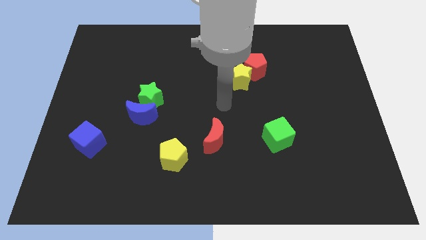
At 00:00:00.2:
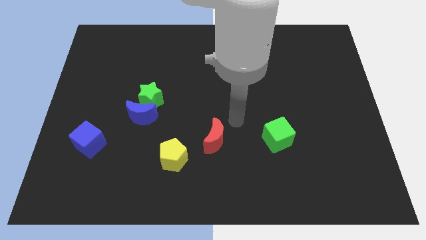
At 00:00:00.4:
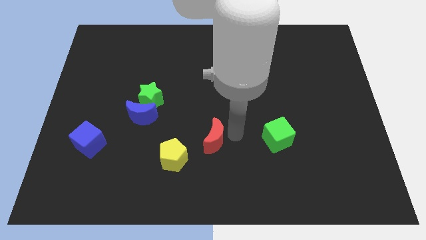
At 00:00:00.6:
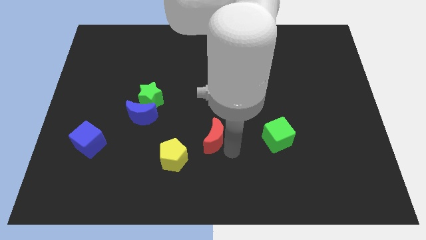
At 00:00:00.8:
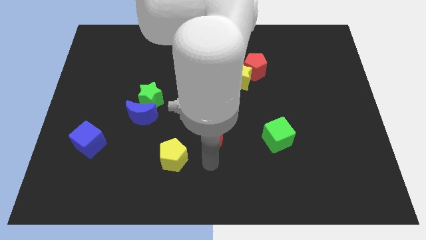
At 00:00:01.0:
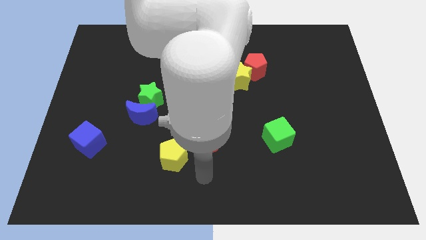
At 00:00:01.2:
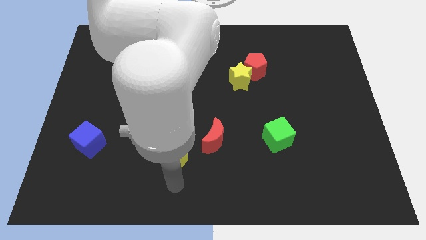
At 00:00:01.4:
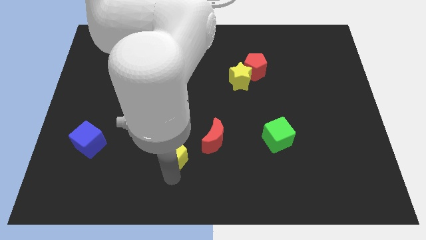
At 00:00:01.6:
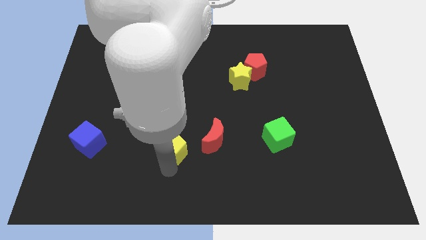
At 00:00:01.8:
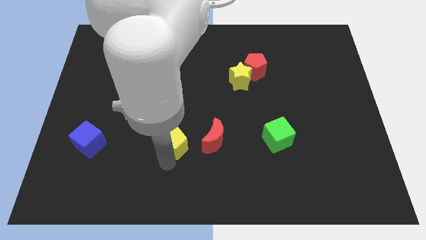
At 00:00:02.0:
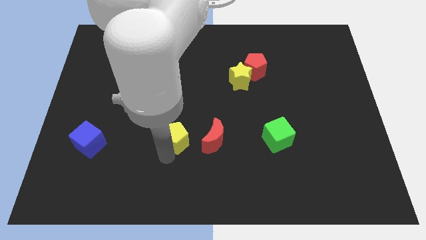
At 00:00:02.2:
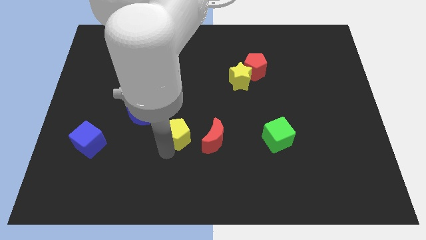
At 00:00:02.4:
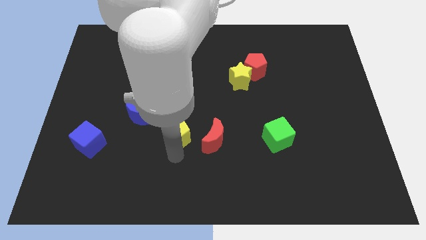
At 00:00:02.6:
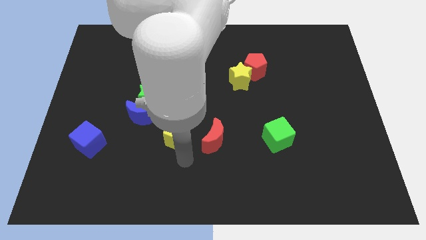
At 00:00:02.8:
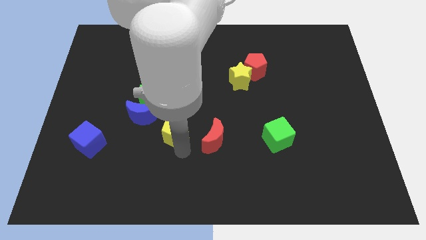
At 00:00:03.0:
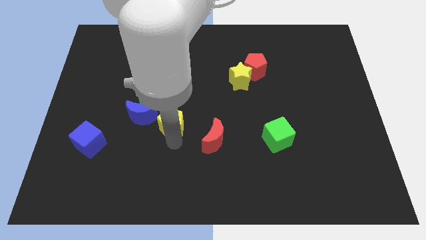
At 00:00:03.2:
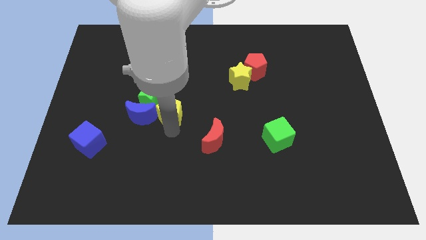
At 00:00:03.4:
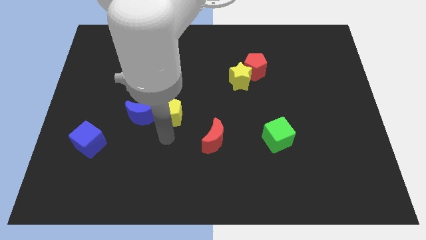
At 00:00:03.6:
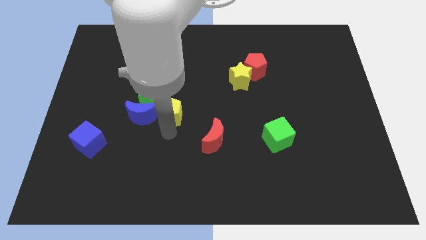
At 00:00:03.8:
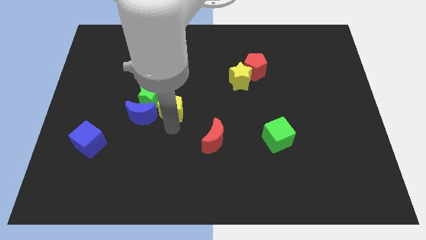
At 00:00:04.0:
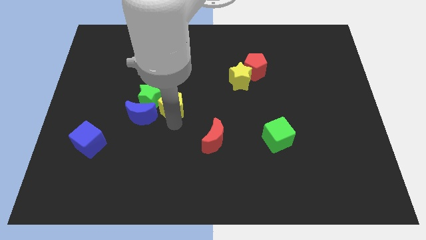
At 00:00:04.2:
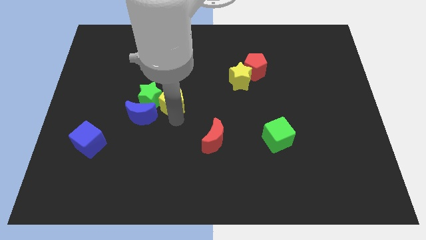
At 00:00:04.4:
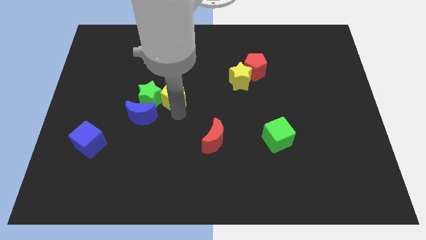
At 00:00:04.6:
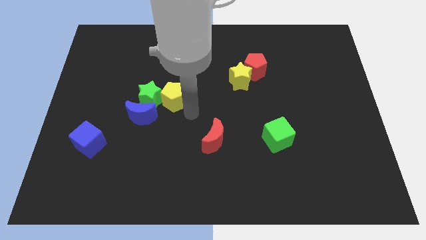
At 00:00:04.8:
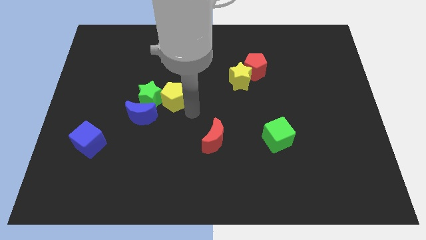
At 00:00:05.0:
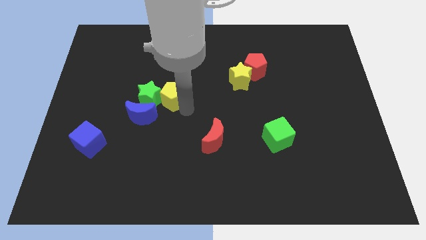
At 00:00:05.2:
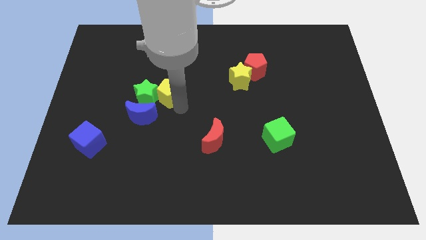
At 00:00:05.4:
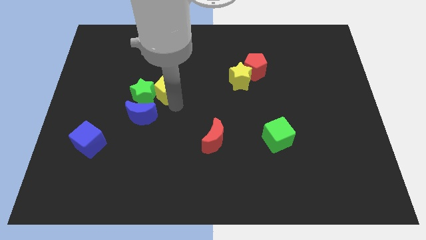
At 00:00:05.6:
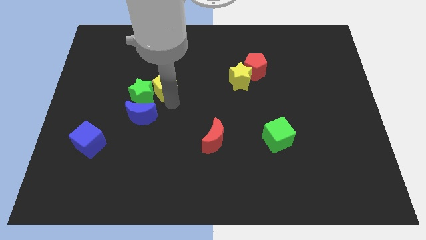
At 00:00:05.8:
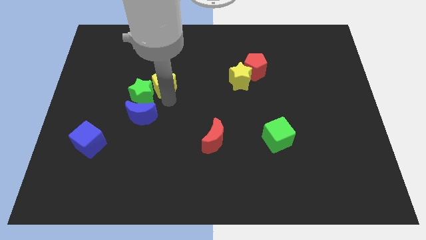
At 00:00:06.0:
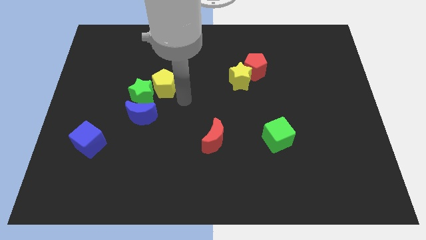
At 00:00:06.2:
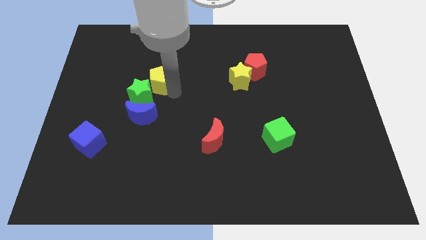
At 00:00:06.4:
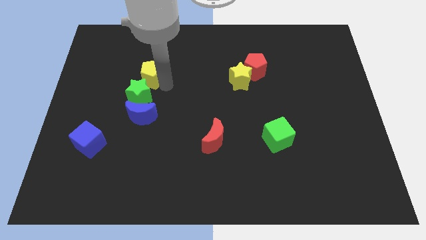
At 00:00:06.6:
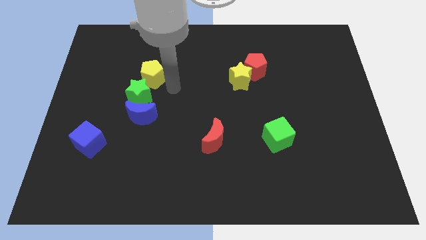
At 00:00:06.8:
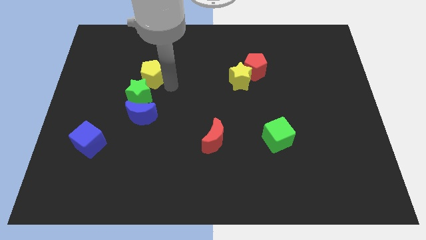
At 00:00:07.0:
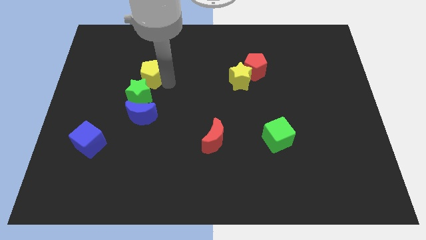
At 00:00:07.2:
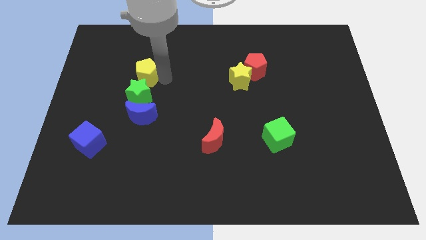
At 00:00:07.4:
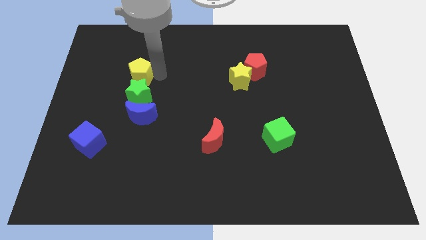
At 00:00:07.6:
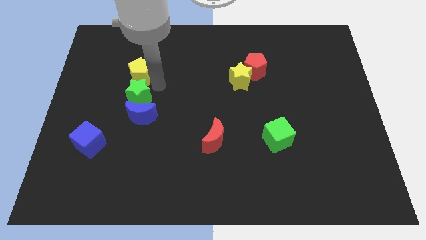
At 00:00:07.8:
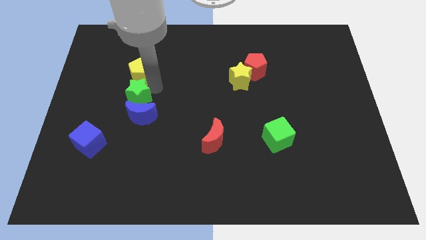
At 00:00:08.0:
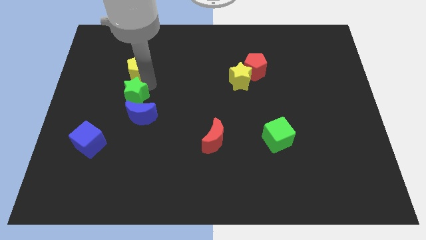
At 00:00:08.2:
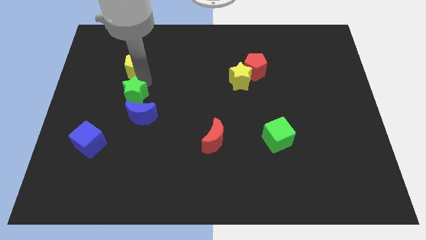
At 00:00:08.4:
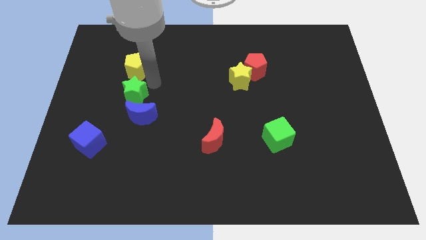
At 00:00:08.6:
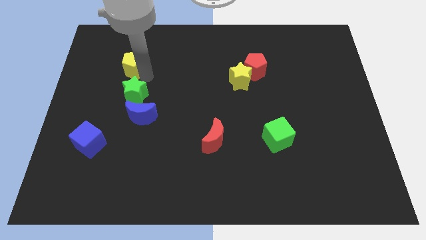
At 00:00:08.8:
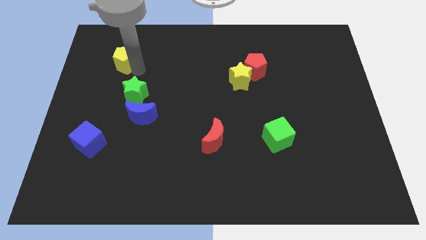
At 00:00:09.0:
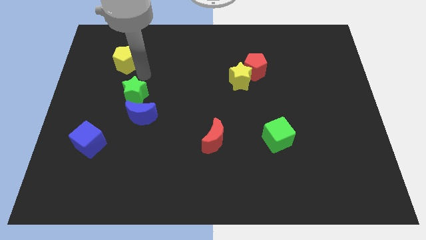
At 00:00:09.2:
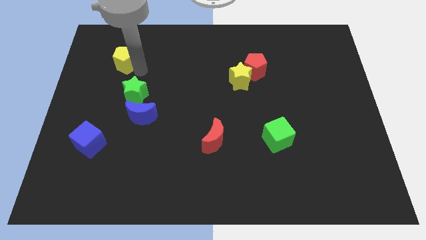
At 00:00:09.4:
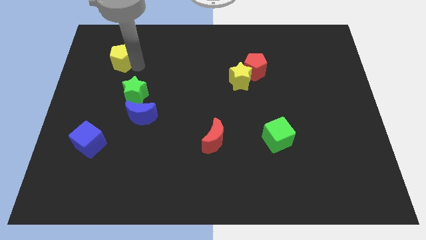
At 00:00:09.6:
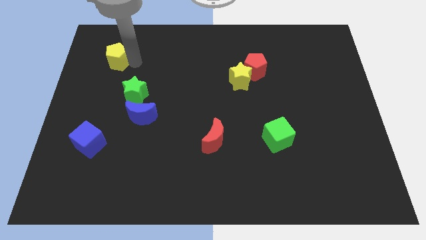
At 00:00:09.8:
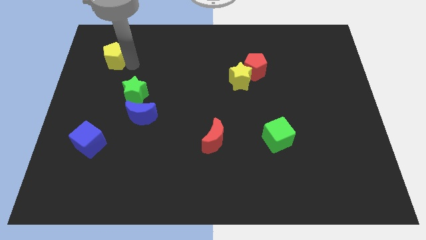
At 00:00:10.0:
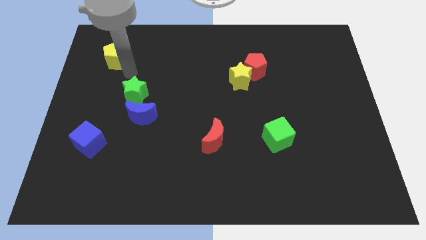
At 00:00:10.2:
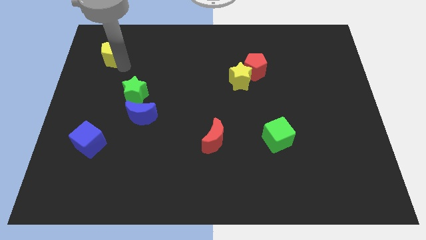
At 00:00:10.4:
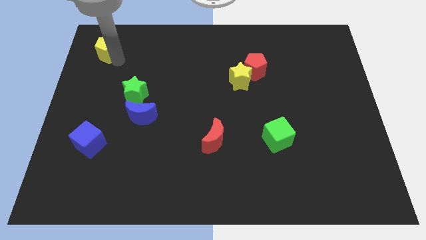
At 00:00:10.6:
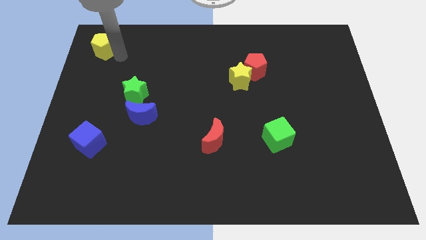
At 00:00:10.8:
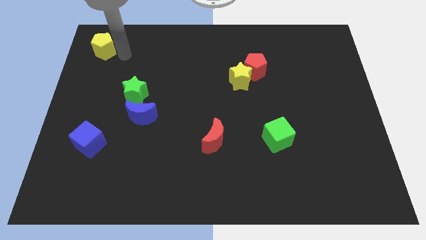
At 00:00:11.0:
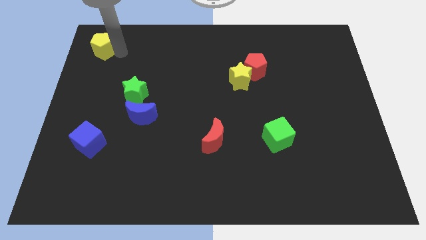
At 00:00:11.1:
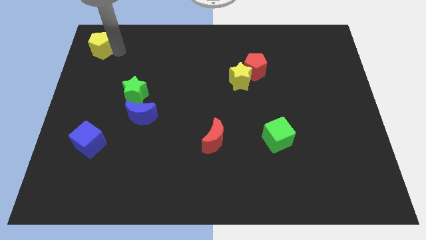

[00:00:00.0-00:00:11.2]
push the yellow pentagon to the upper left corner

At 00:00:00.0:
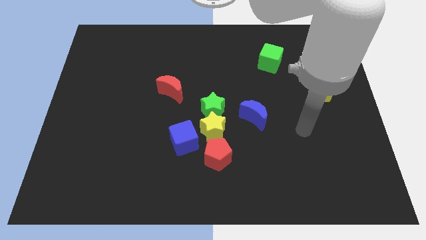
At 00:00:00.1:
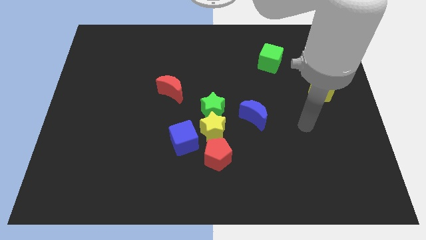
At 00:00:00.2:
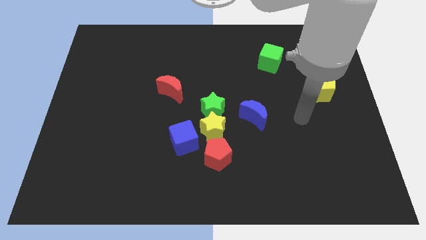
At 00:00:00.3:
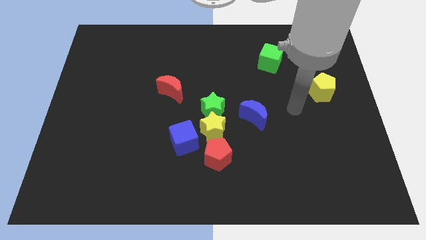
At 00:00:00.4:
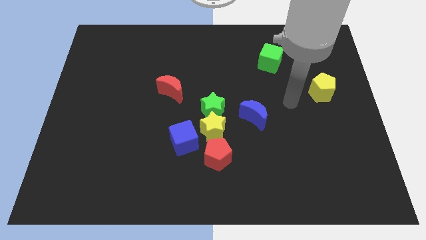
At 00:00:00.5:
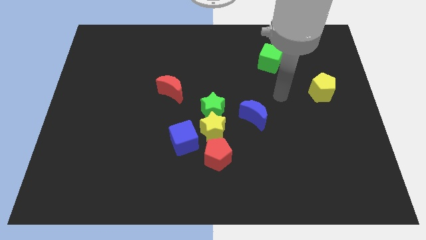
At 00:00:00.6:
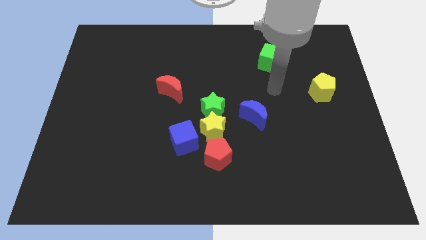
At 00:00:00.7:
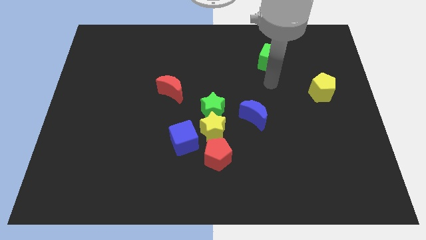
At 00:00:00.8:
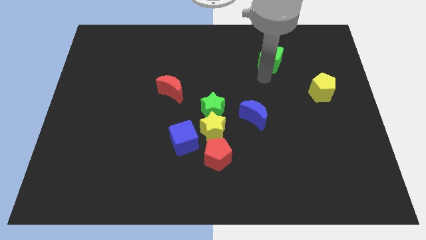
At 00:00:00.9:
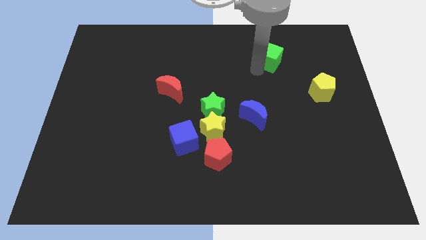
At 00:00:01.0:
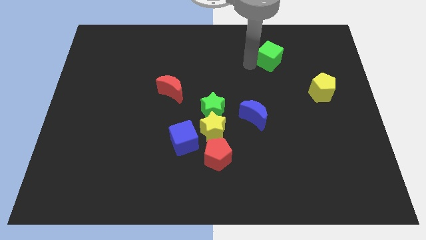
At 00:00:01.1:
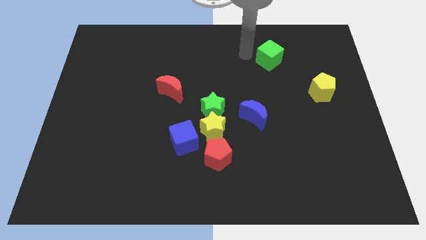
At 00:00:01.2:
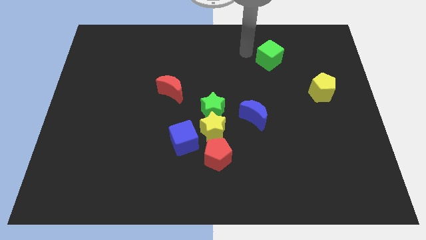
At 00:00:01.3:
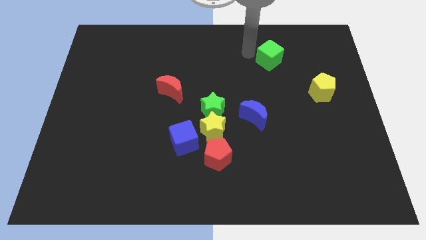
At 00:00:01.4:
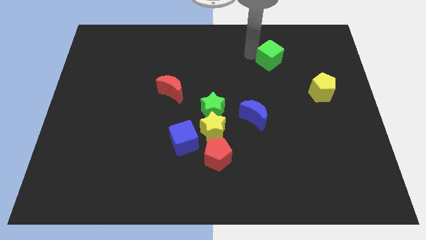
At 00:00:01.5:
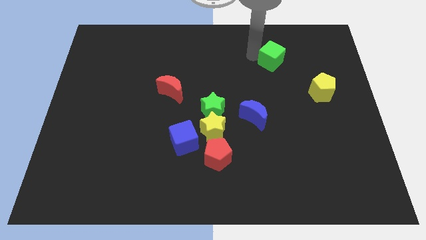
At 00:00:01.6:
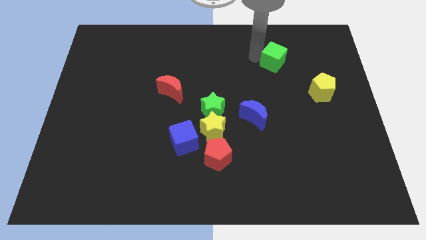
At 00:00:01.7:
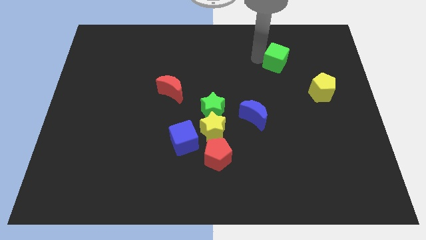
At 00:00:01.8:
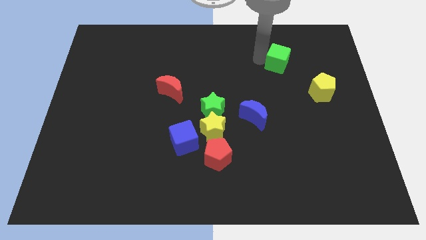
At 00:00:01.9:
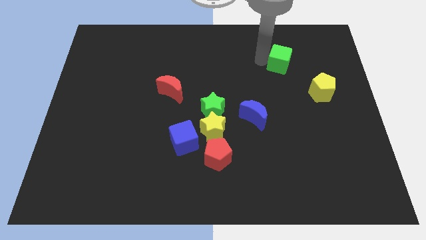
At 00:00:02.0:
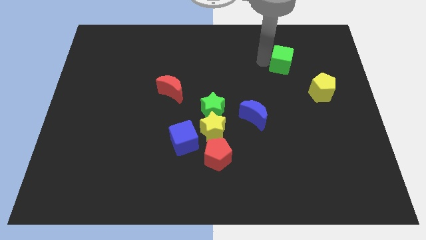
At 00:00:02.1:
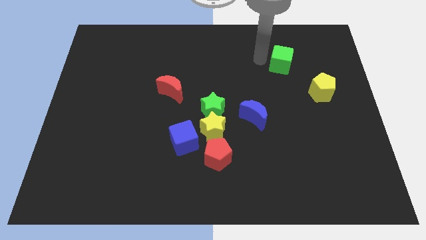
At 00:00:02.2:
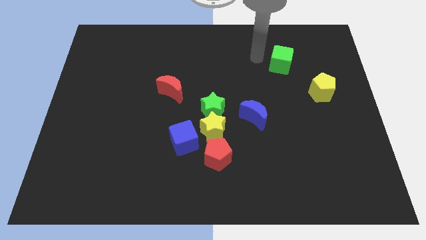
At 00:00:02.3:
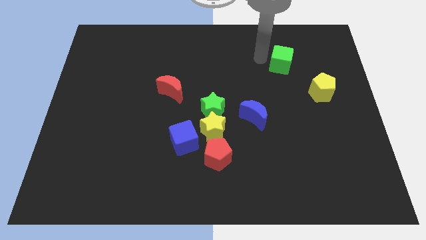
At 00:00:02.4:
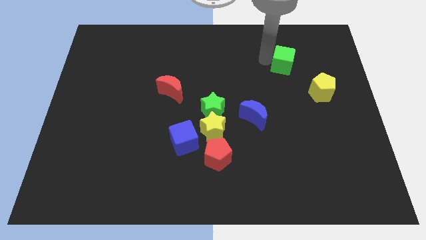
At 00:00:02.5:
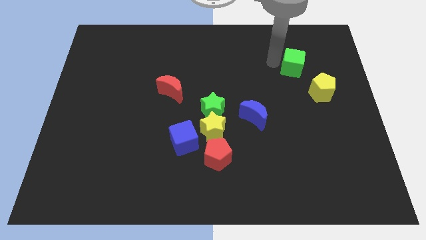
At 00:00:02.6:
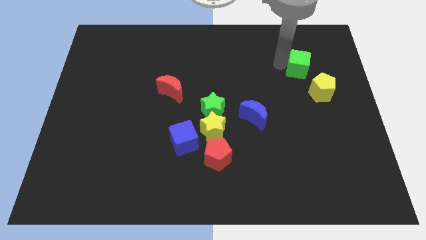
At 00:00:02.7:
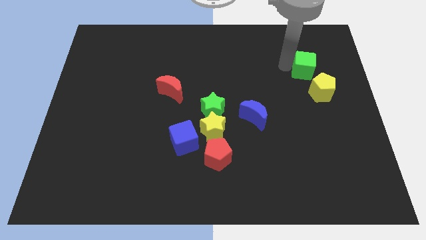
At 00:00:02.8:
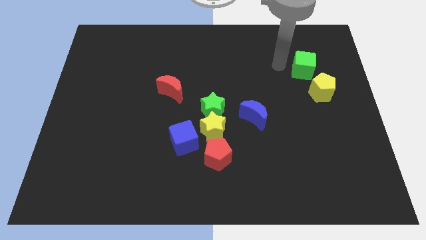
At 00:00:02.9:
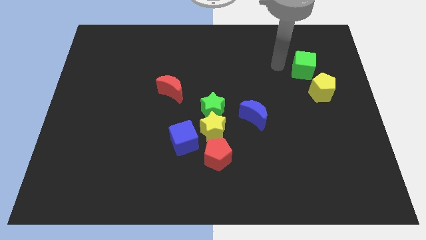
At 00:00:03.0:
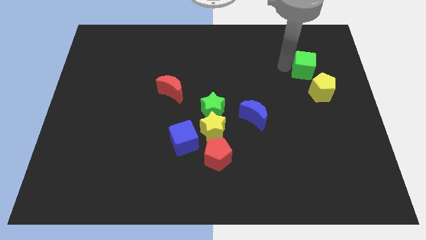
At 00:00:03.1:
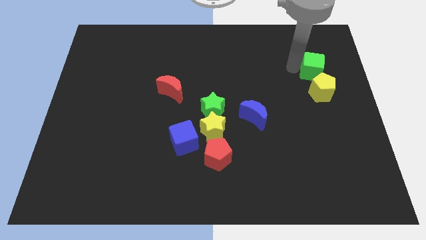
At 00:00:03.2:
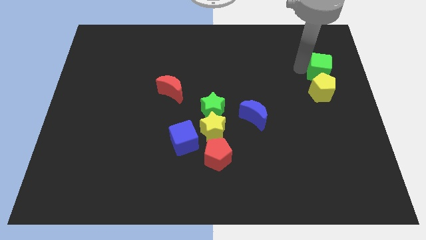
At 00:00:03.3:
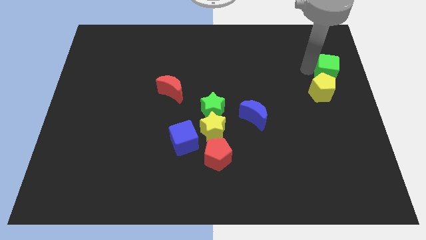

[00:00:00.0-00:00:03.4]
slide the green cube to the right side
